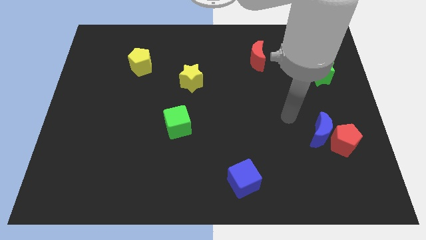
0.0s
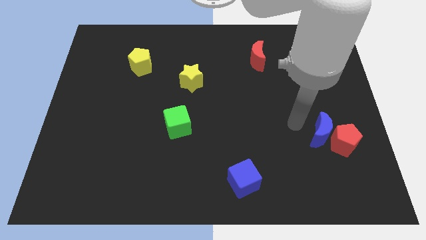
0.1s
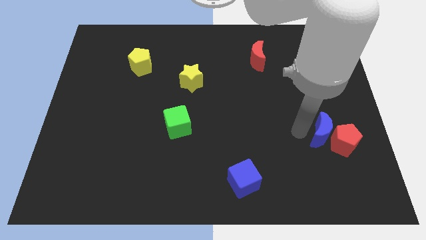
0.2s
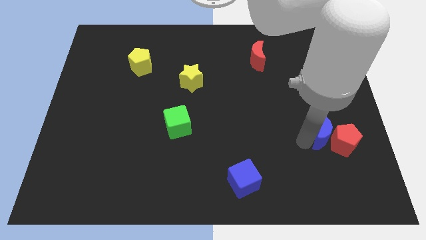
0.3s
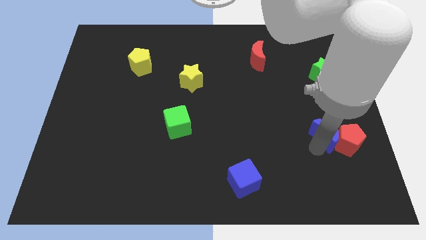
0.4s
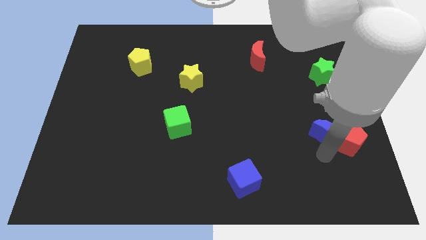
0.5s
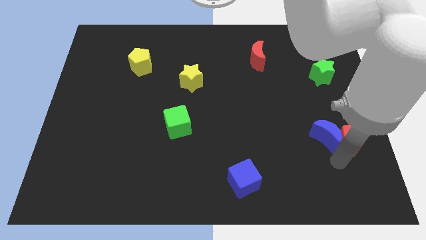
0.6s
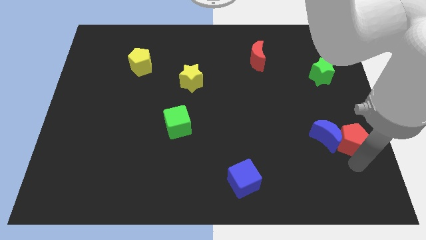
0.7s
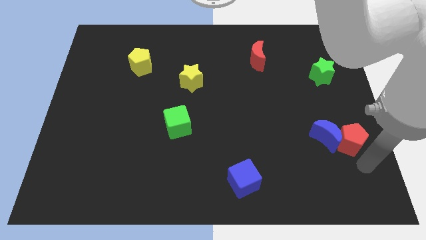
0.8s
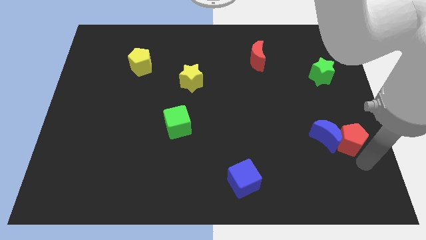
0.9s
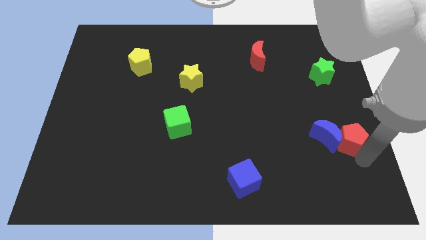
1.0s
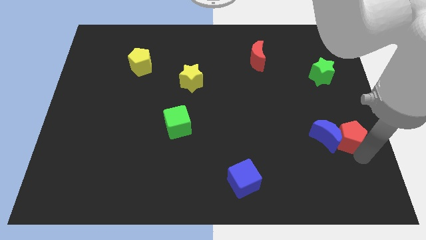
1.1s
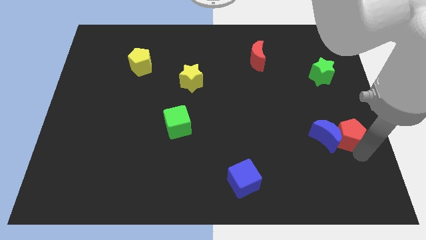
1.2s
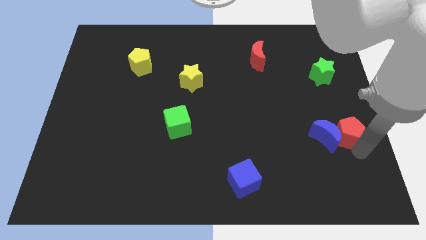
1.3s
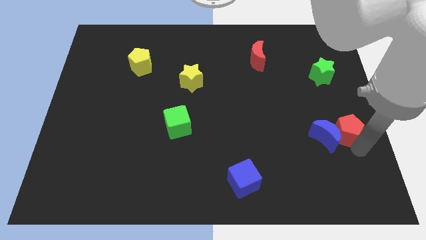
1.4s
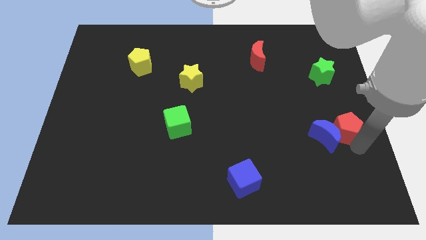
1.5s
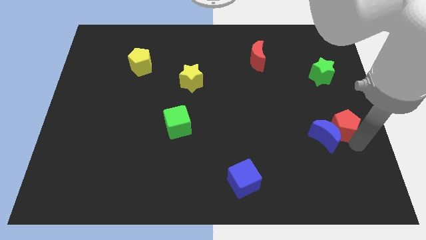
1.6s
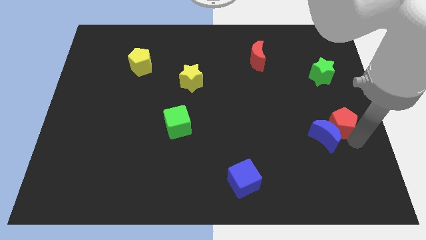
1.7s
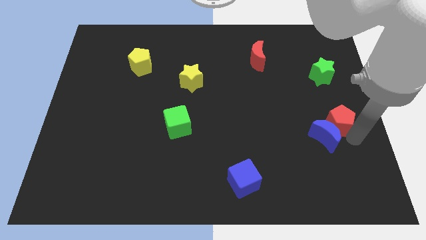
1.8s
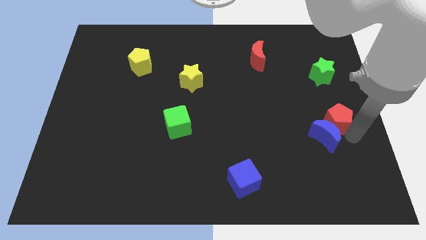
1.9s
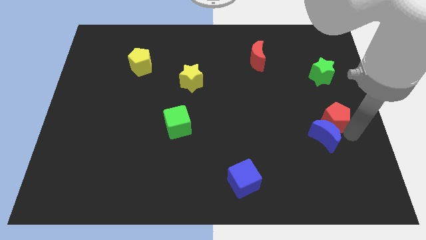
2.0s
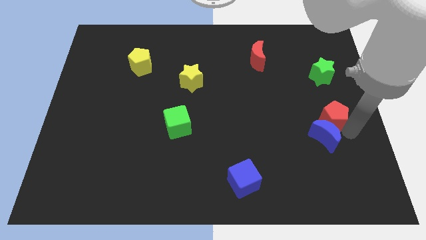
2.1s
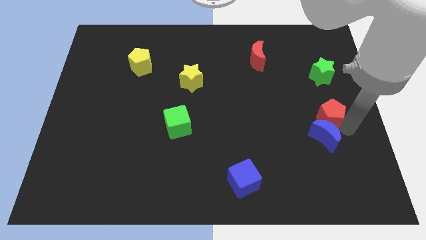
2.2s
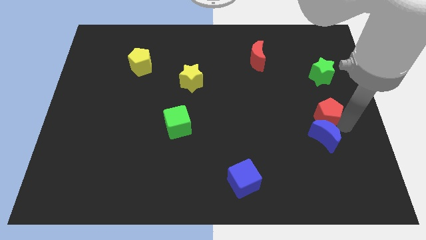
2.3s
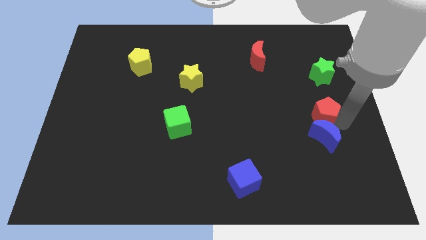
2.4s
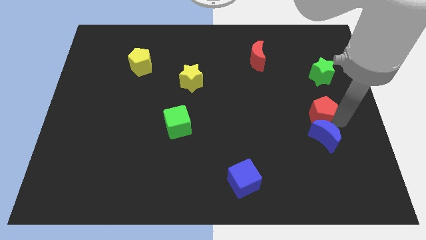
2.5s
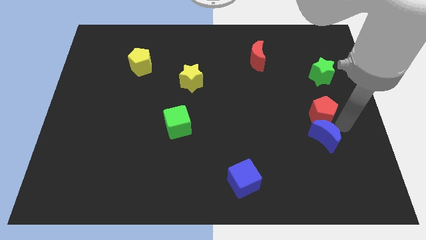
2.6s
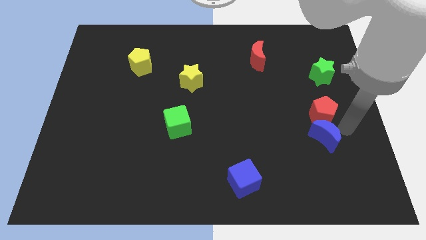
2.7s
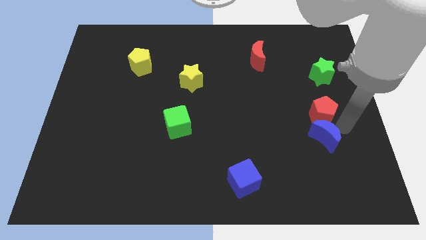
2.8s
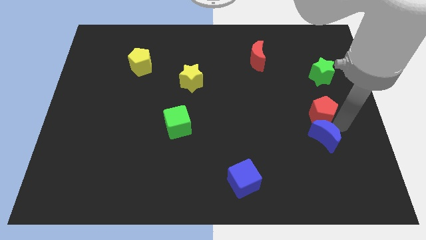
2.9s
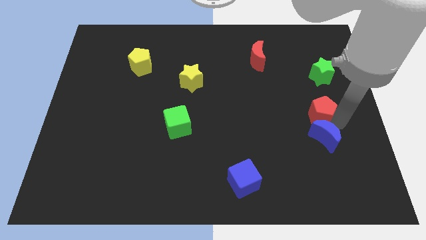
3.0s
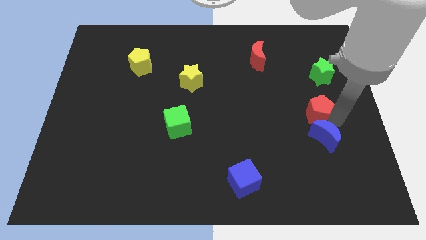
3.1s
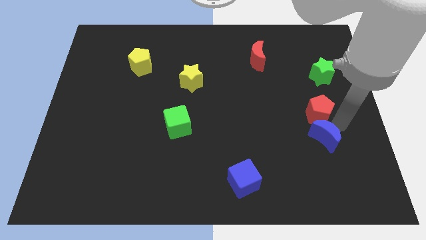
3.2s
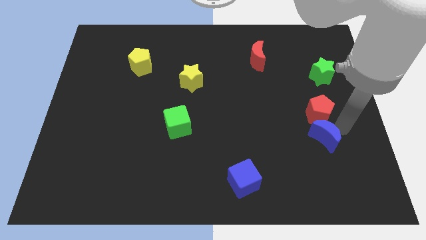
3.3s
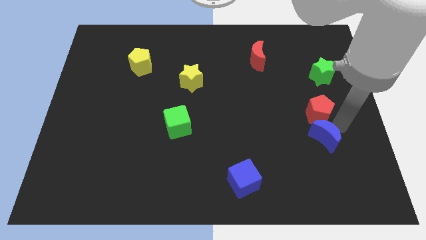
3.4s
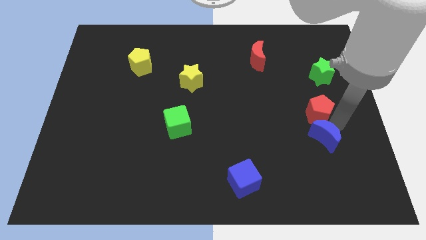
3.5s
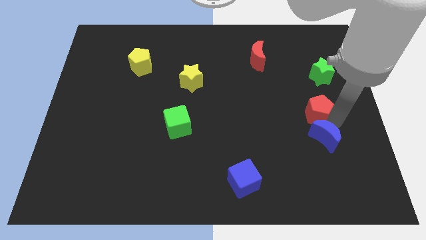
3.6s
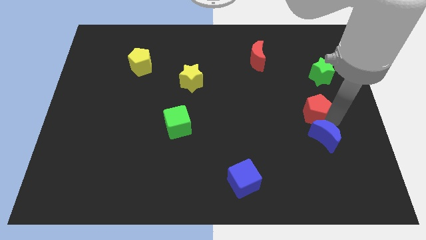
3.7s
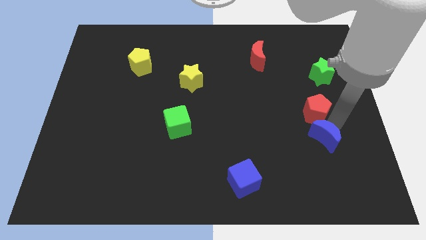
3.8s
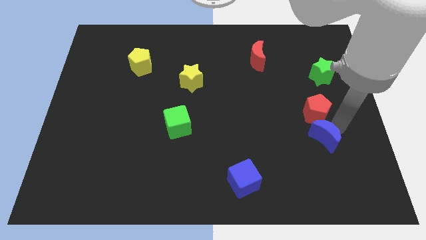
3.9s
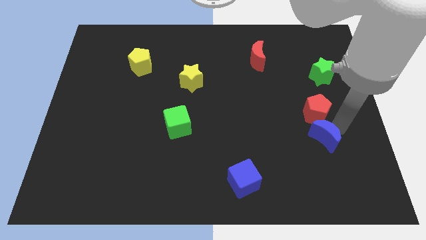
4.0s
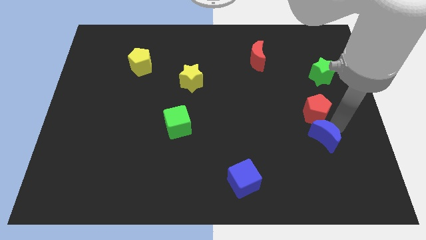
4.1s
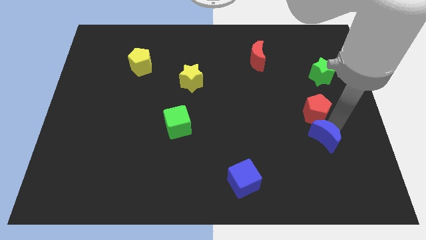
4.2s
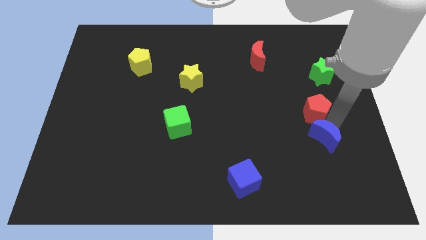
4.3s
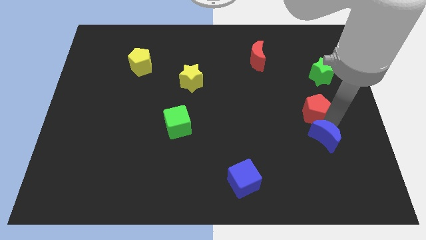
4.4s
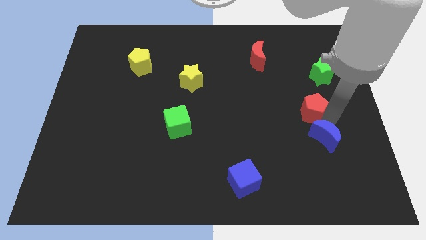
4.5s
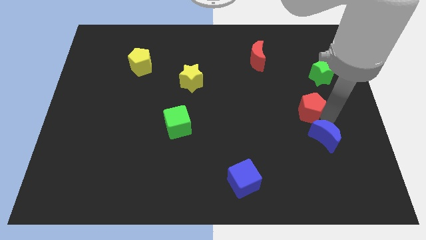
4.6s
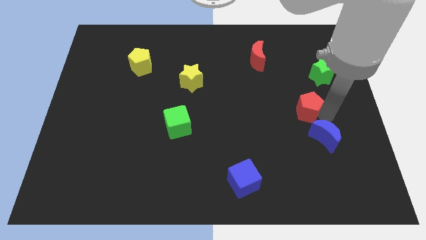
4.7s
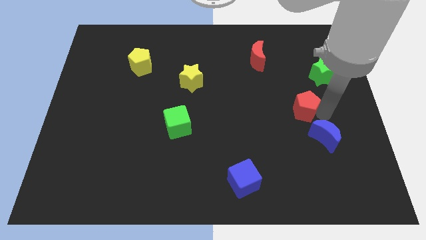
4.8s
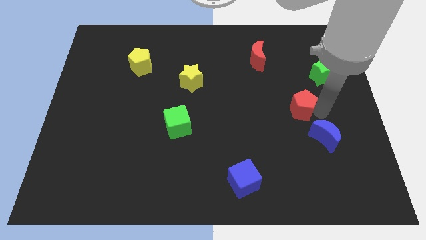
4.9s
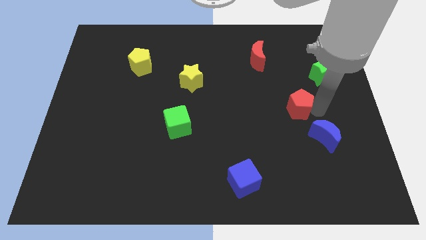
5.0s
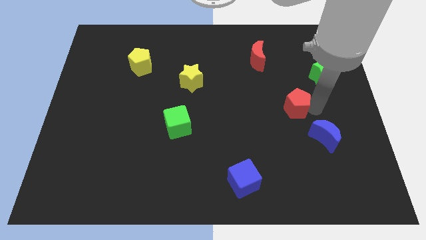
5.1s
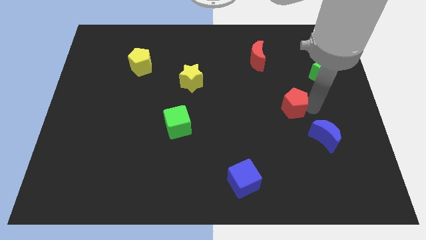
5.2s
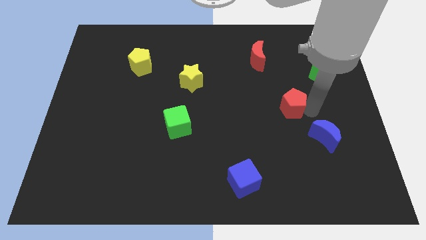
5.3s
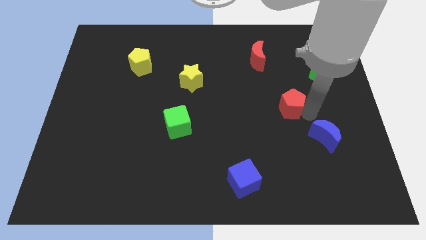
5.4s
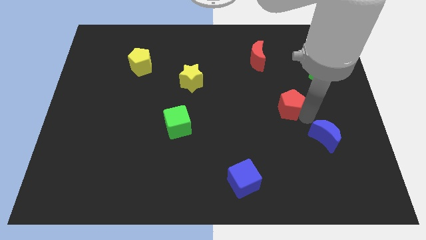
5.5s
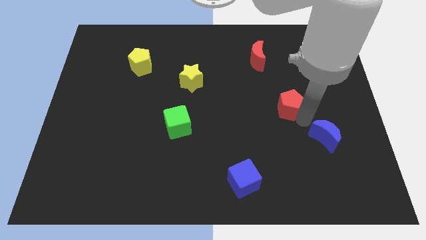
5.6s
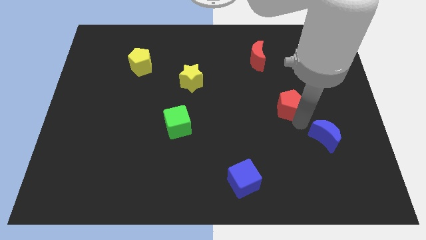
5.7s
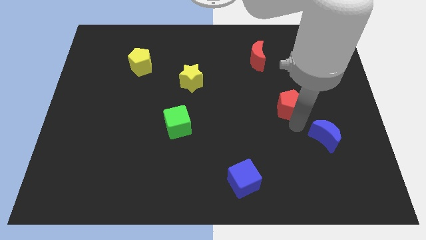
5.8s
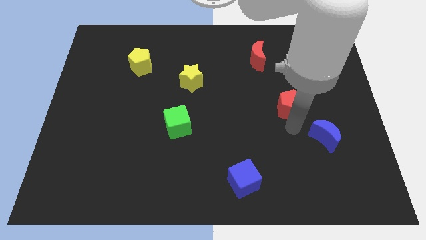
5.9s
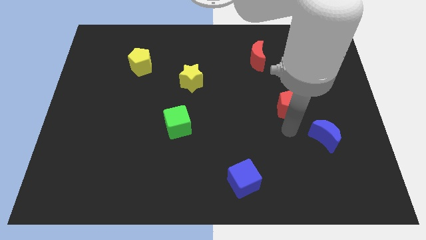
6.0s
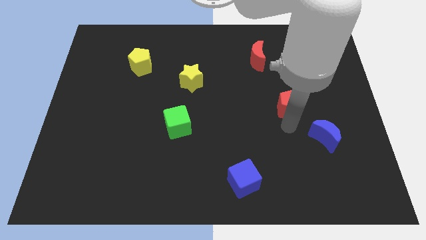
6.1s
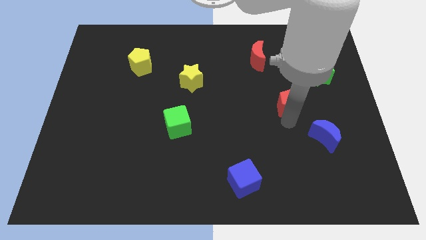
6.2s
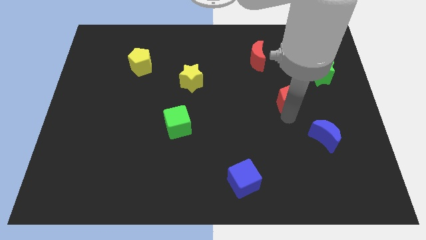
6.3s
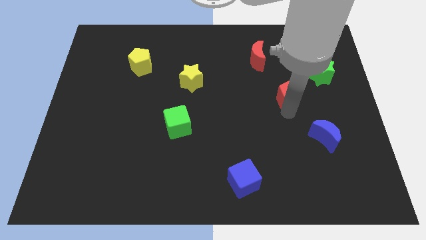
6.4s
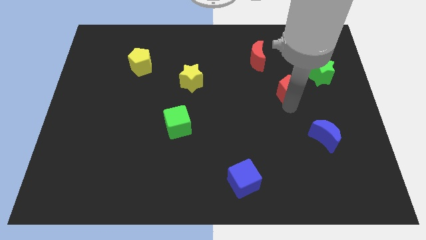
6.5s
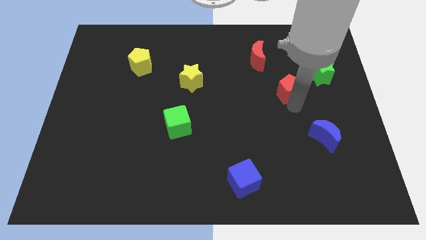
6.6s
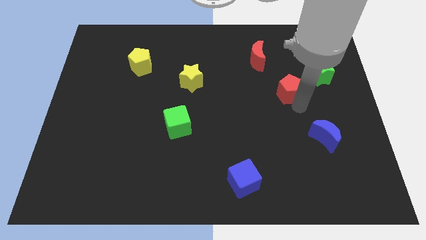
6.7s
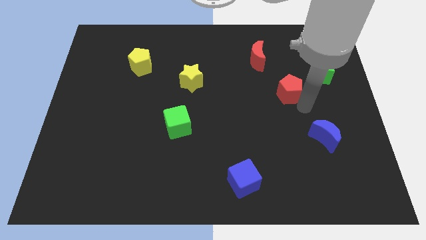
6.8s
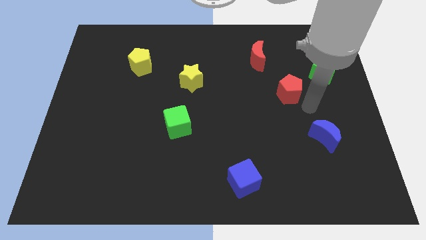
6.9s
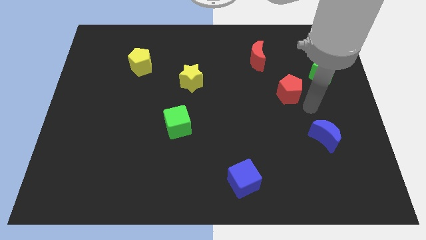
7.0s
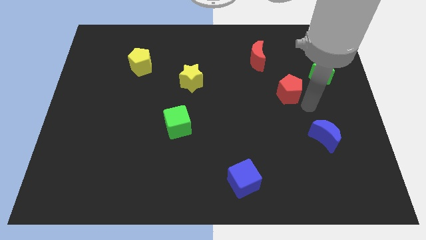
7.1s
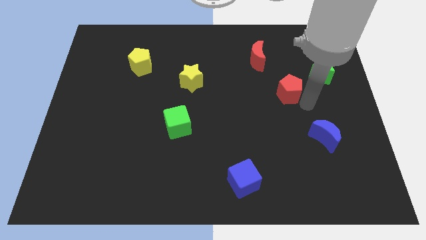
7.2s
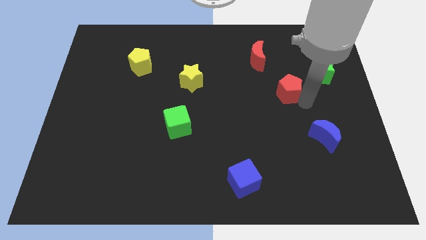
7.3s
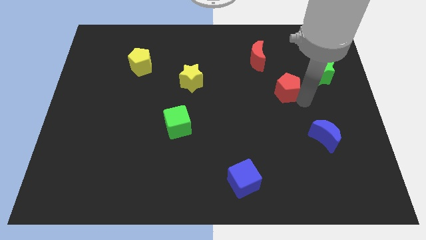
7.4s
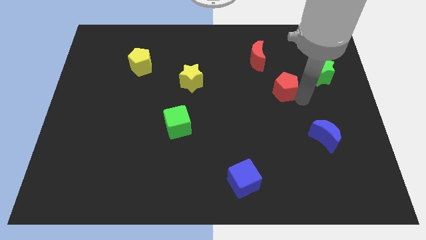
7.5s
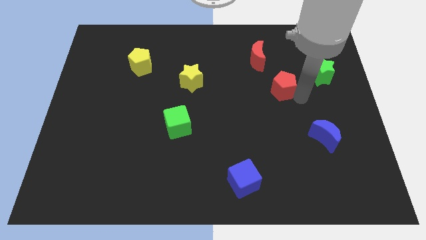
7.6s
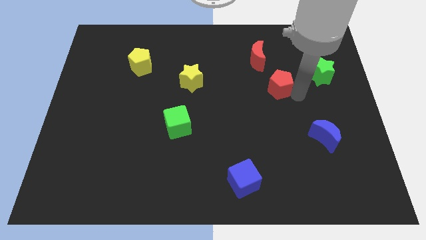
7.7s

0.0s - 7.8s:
push the red pentagon up and left

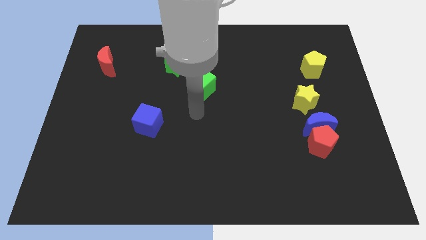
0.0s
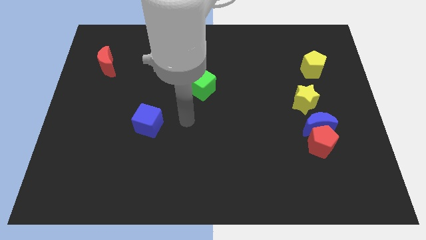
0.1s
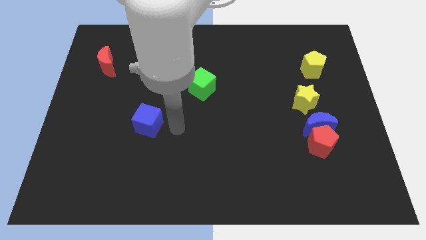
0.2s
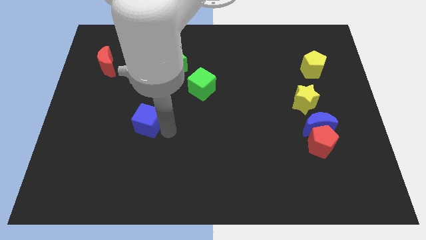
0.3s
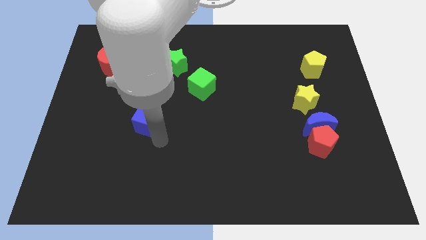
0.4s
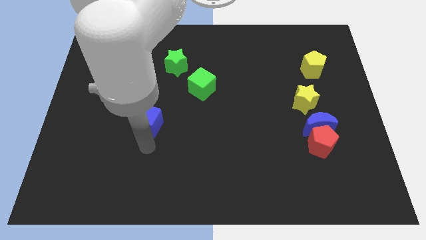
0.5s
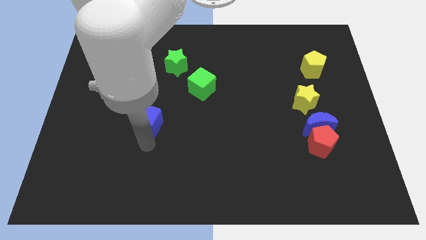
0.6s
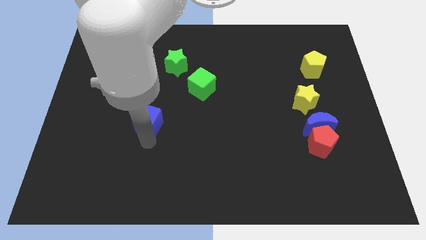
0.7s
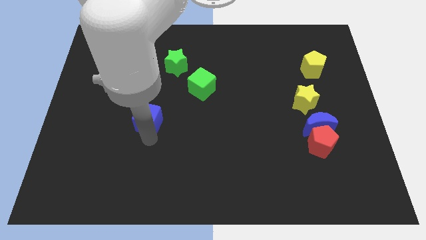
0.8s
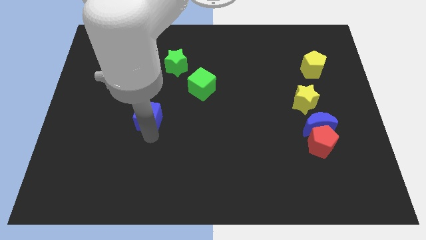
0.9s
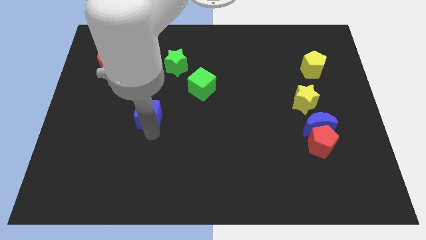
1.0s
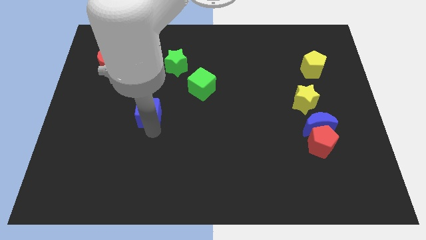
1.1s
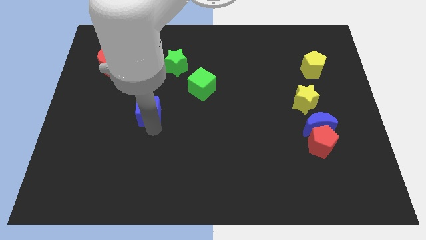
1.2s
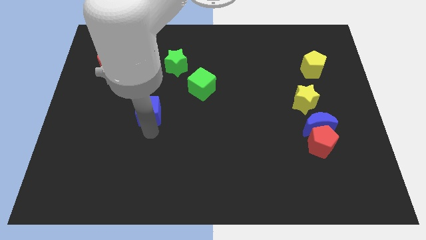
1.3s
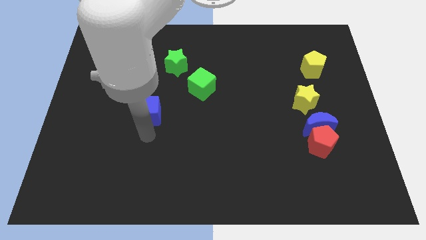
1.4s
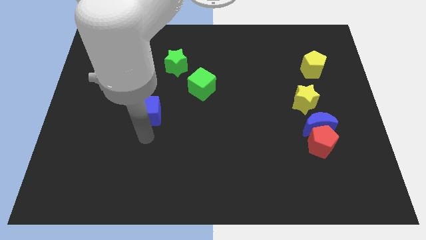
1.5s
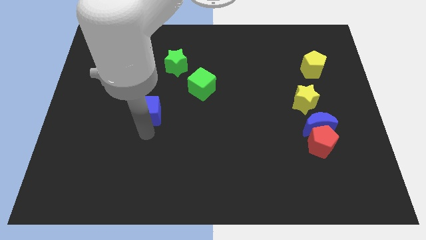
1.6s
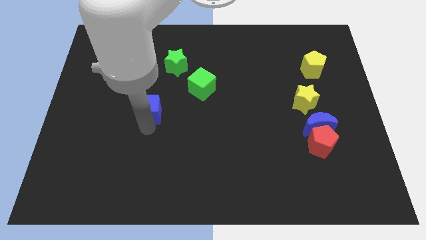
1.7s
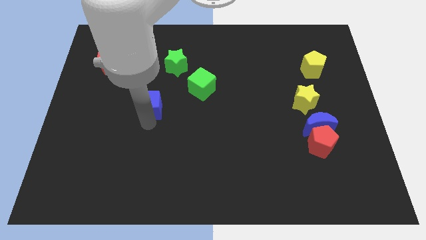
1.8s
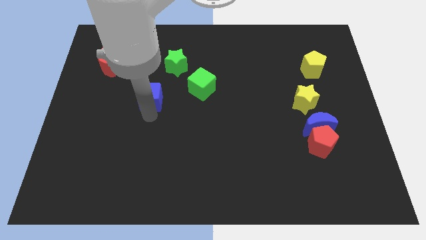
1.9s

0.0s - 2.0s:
slightly move the blue cube upwards
